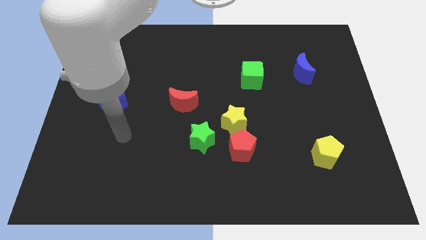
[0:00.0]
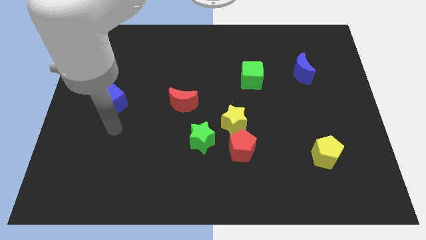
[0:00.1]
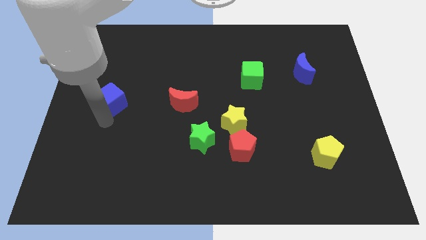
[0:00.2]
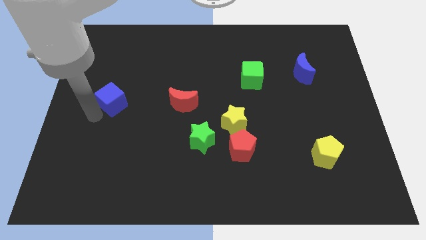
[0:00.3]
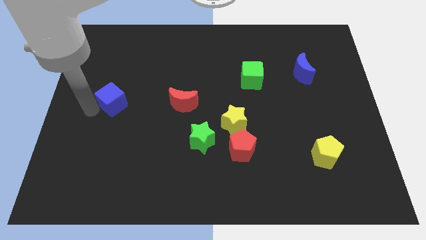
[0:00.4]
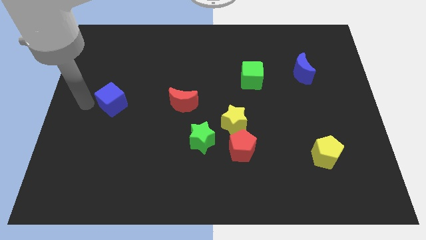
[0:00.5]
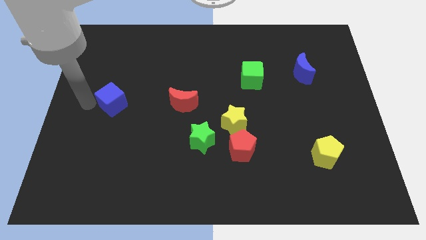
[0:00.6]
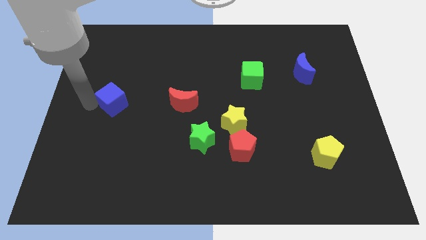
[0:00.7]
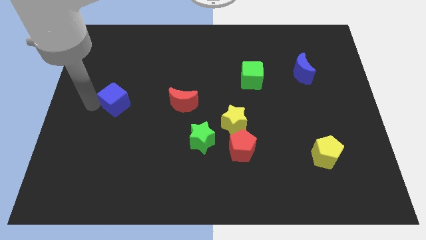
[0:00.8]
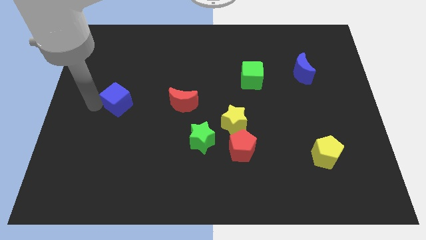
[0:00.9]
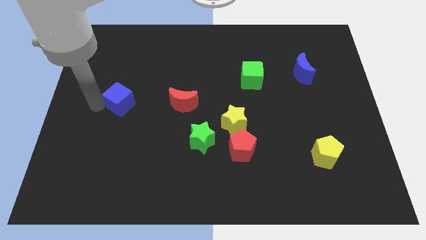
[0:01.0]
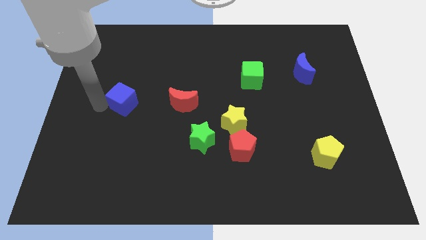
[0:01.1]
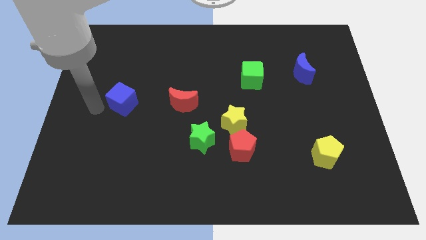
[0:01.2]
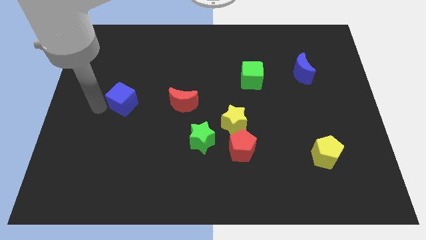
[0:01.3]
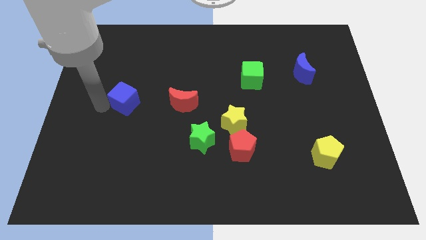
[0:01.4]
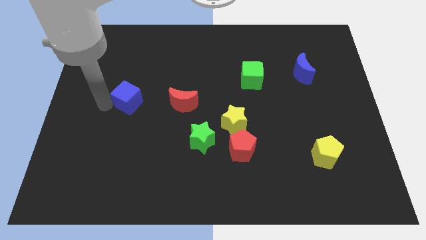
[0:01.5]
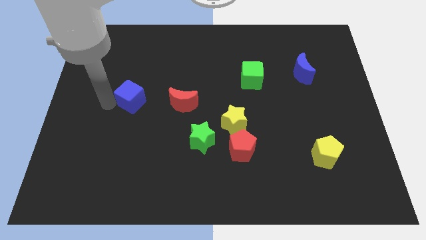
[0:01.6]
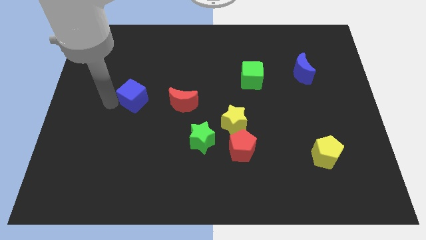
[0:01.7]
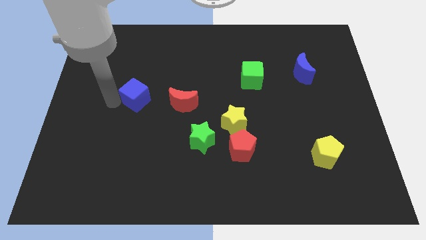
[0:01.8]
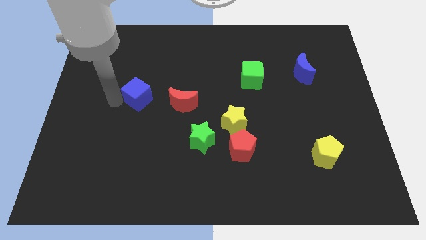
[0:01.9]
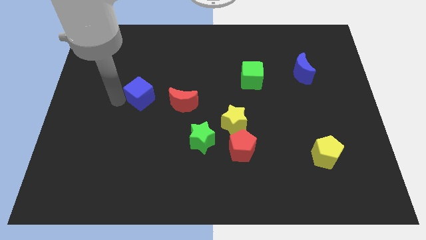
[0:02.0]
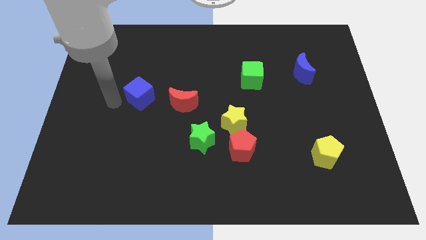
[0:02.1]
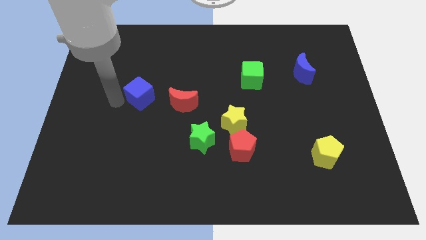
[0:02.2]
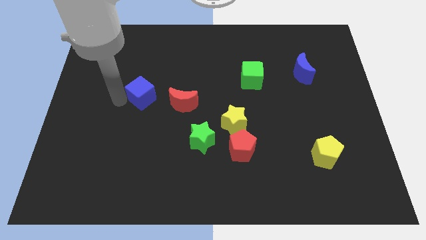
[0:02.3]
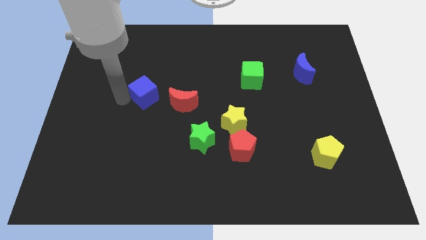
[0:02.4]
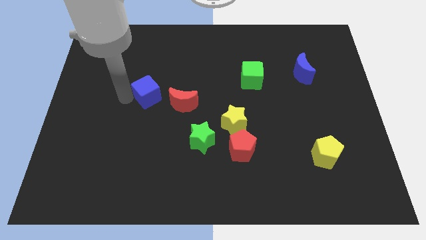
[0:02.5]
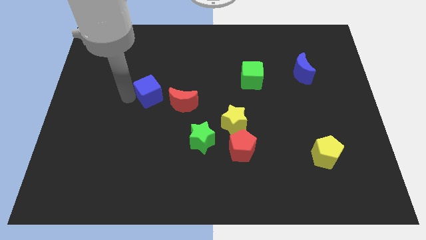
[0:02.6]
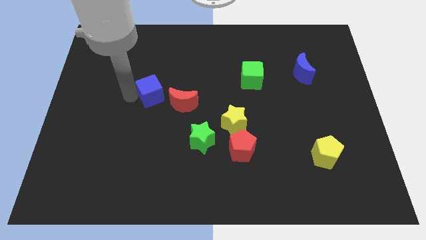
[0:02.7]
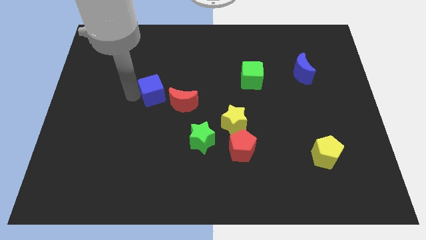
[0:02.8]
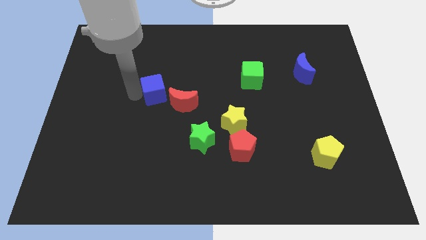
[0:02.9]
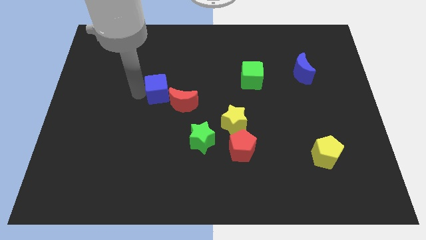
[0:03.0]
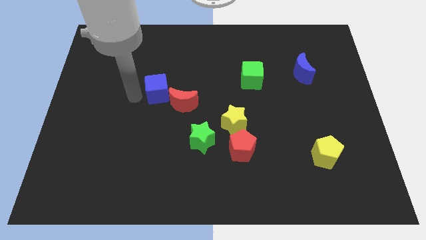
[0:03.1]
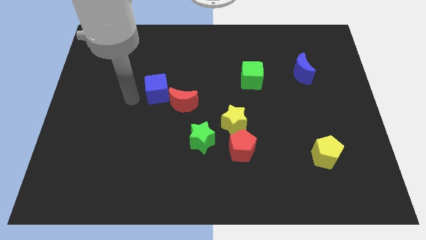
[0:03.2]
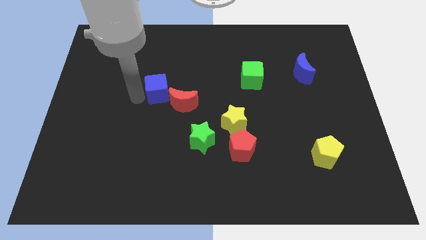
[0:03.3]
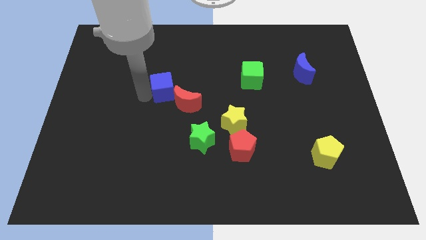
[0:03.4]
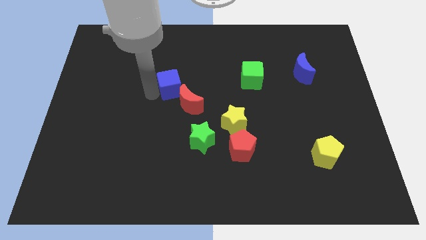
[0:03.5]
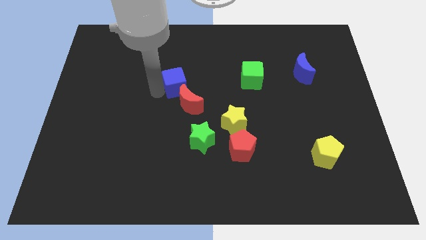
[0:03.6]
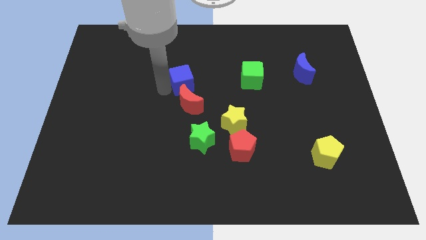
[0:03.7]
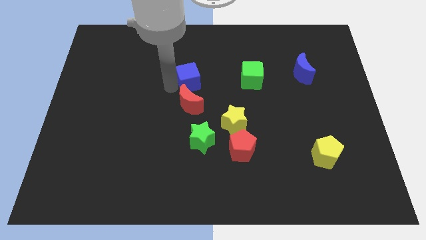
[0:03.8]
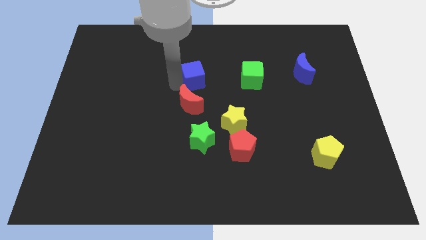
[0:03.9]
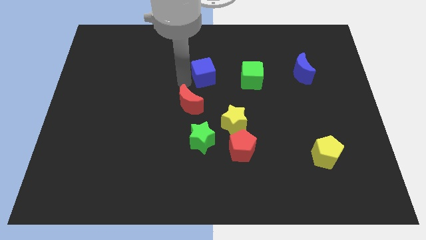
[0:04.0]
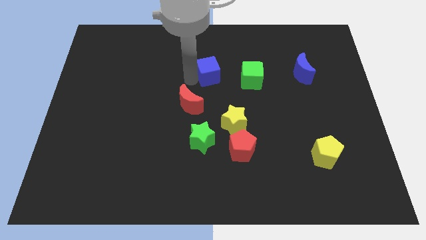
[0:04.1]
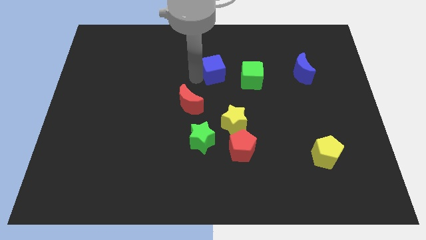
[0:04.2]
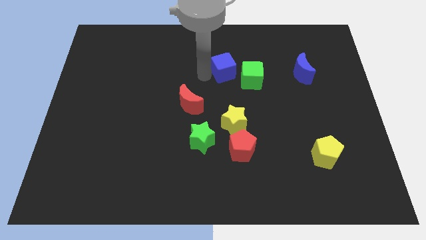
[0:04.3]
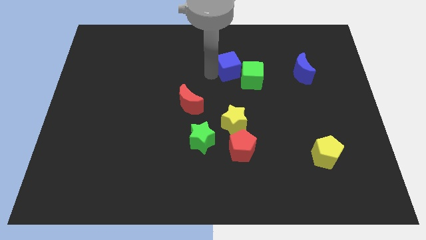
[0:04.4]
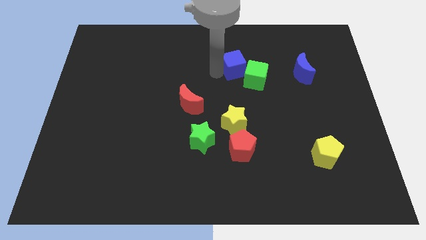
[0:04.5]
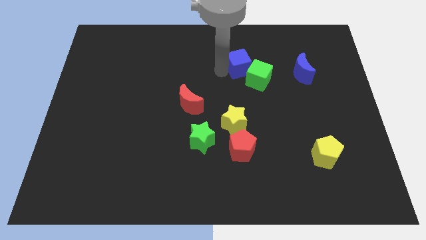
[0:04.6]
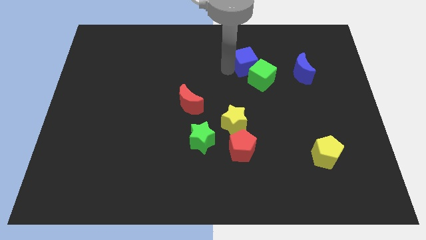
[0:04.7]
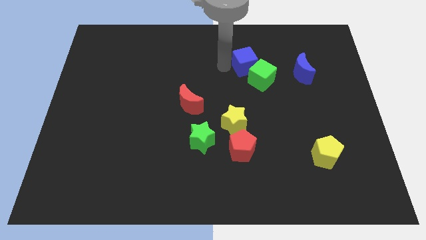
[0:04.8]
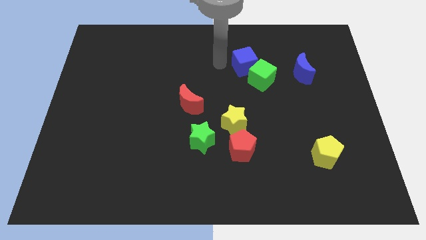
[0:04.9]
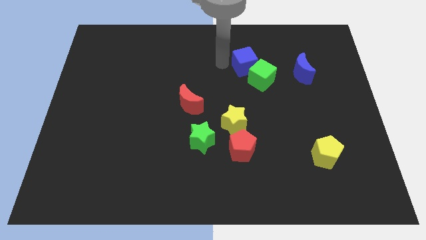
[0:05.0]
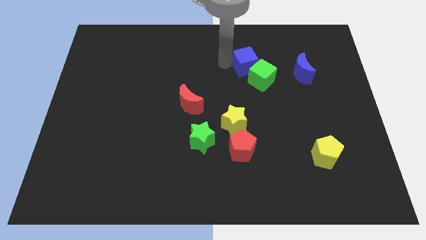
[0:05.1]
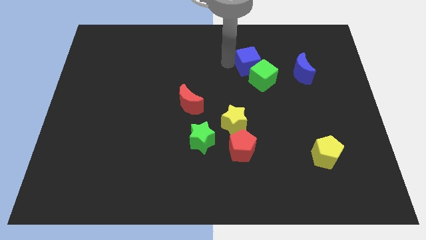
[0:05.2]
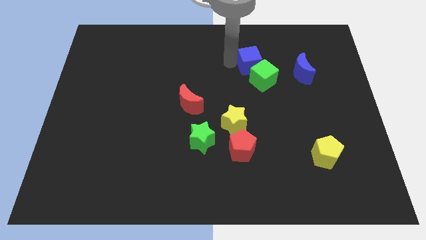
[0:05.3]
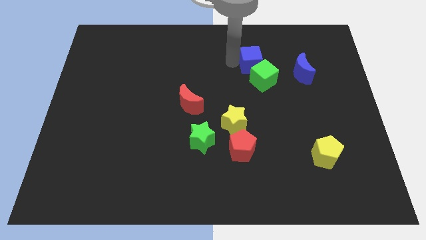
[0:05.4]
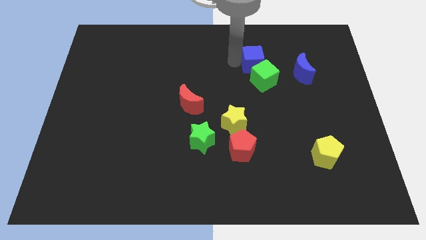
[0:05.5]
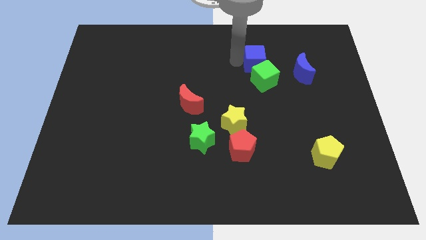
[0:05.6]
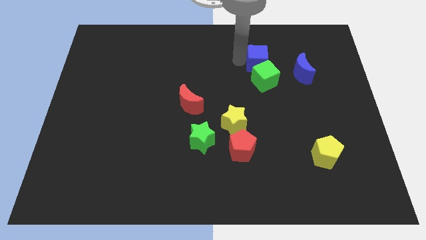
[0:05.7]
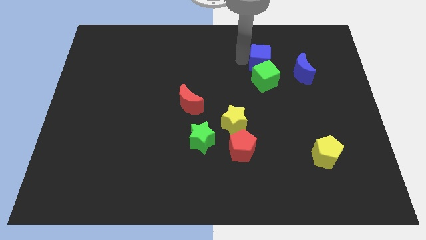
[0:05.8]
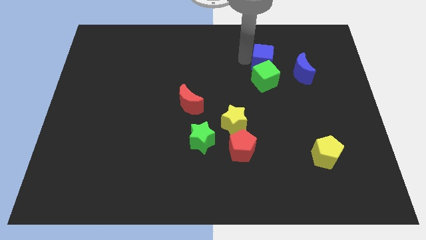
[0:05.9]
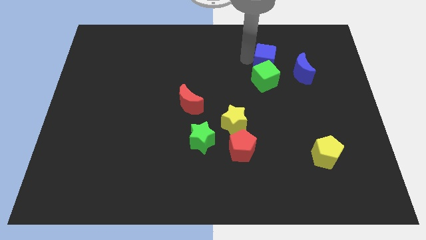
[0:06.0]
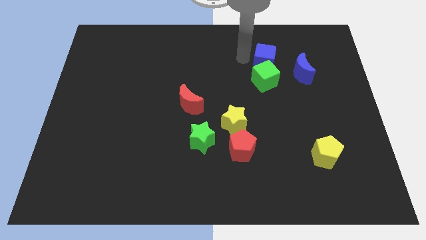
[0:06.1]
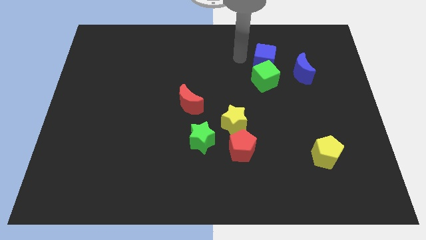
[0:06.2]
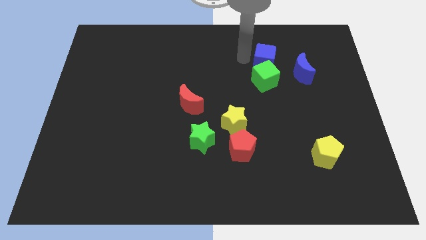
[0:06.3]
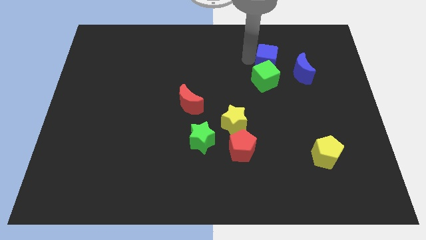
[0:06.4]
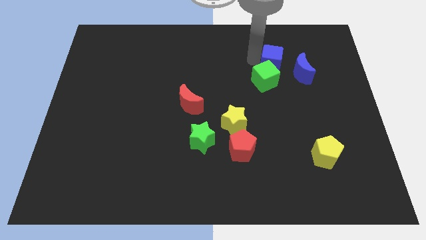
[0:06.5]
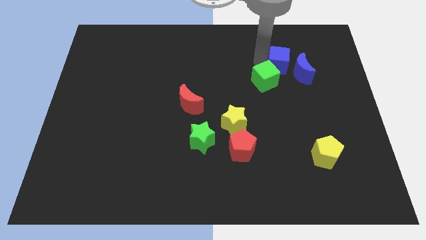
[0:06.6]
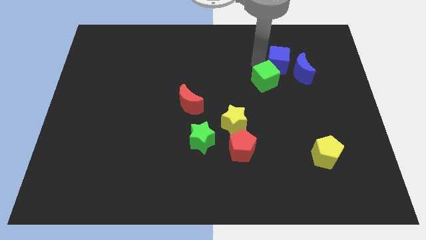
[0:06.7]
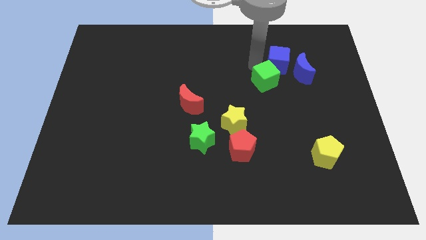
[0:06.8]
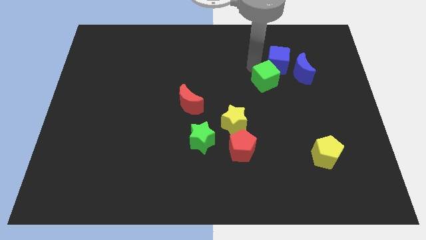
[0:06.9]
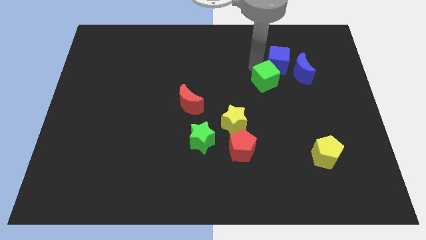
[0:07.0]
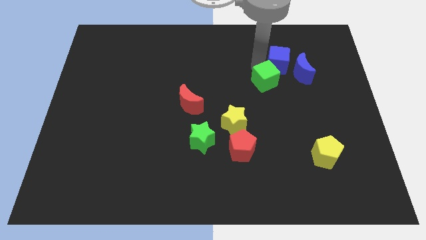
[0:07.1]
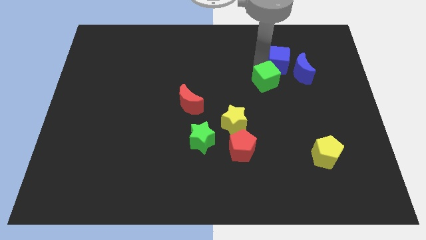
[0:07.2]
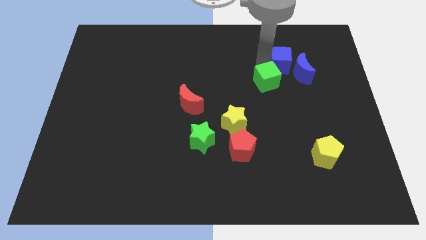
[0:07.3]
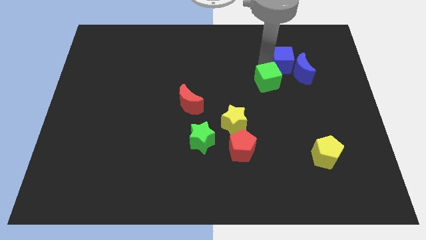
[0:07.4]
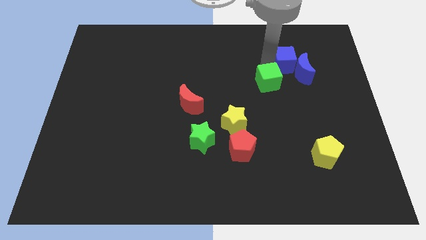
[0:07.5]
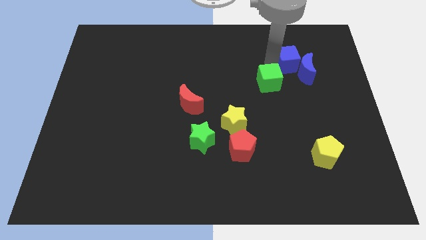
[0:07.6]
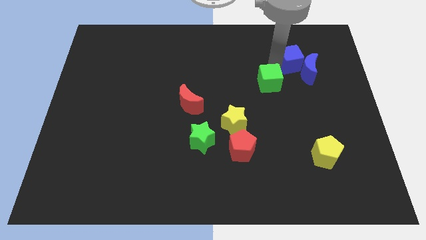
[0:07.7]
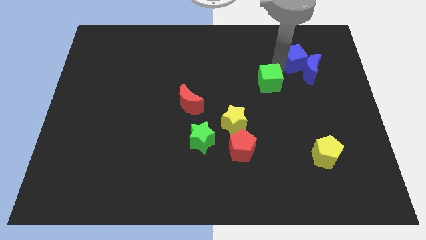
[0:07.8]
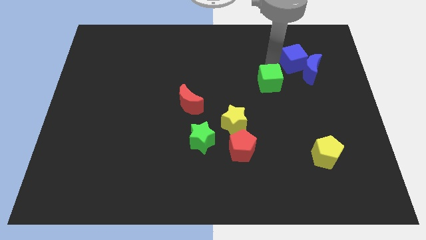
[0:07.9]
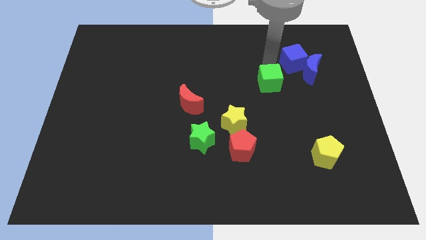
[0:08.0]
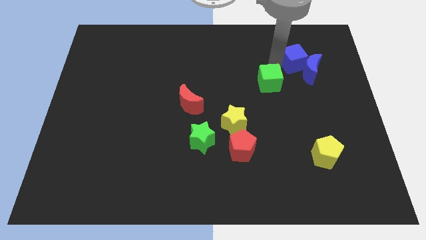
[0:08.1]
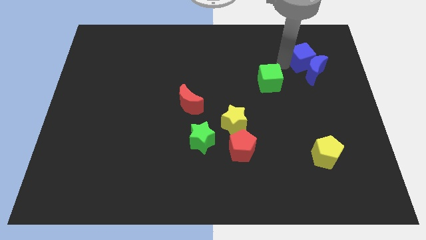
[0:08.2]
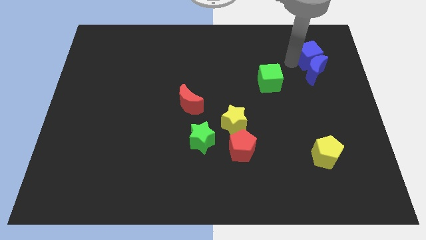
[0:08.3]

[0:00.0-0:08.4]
push the blue cube diagonally up and to the right of the blue moon
